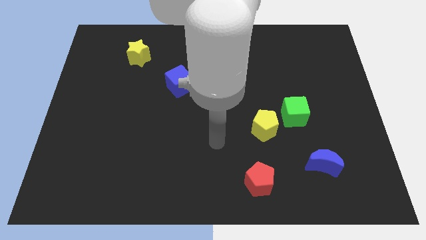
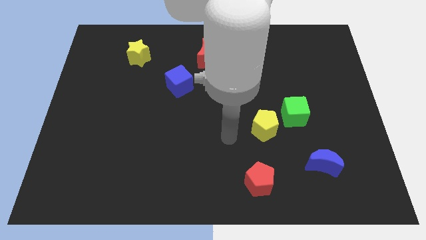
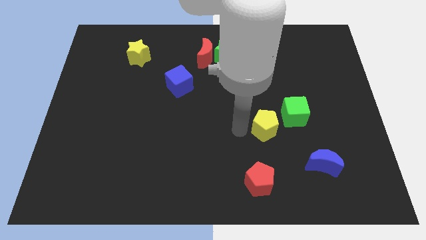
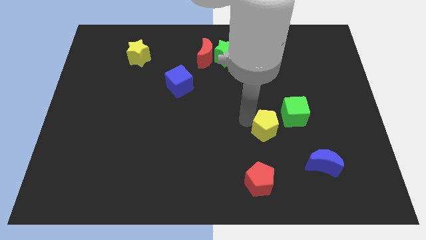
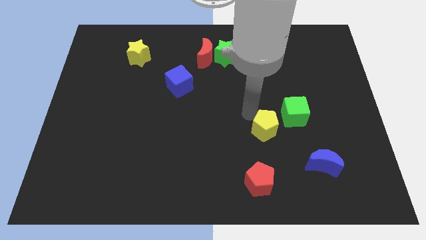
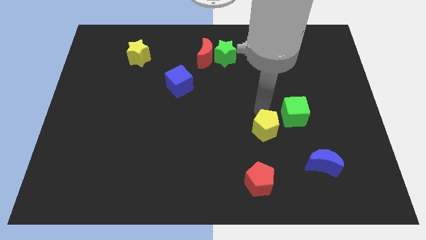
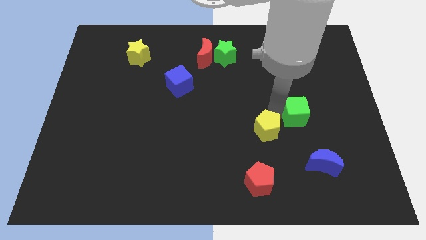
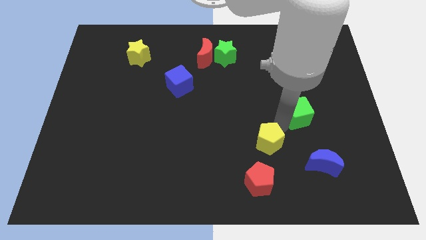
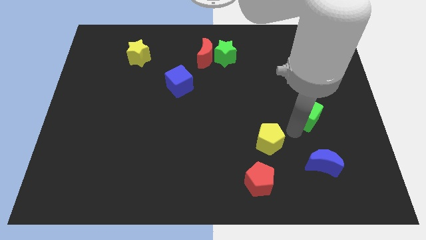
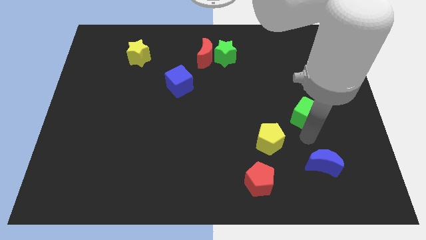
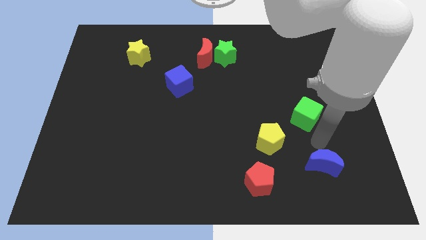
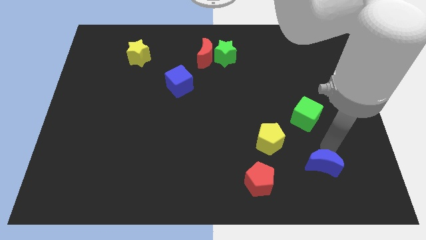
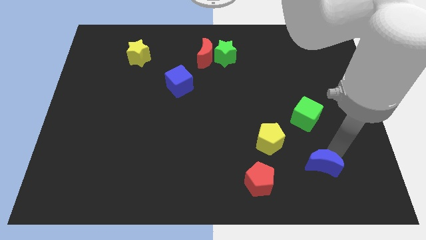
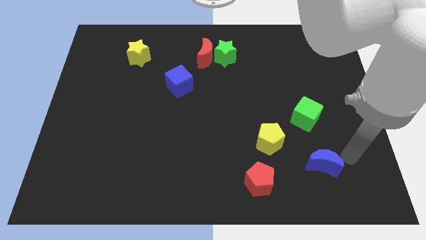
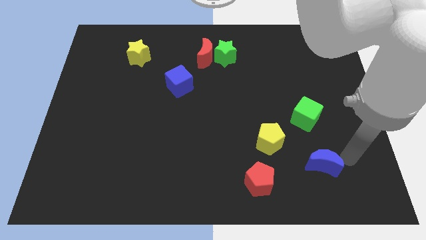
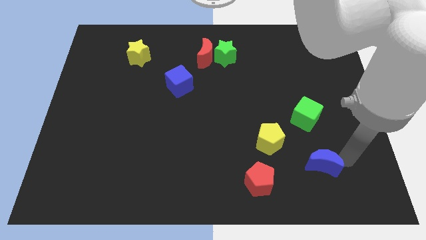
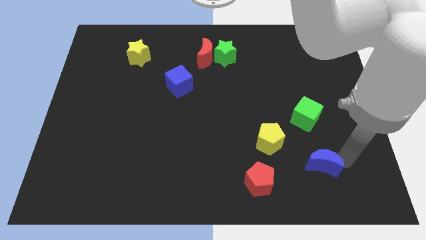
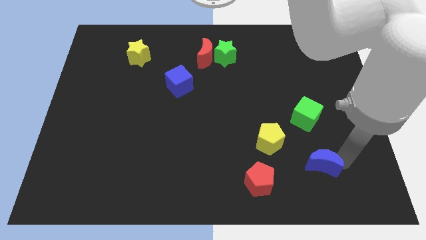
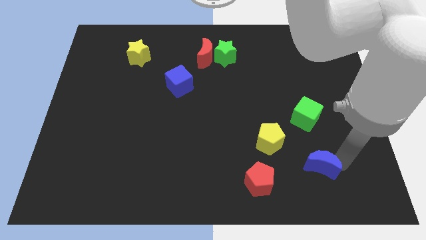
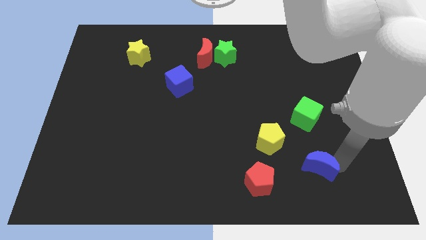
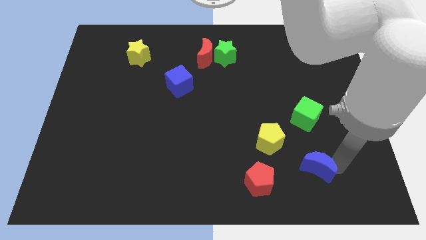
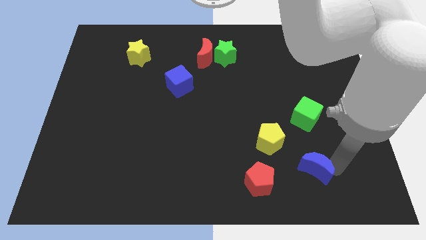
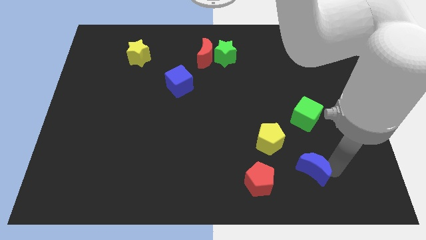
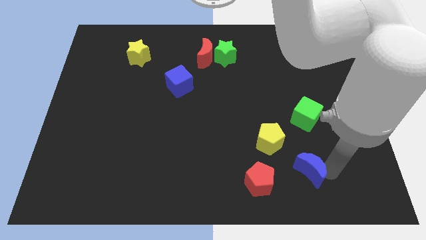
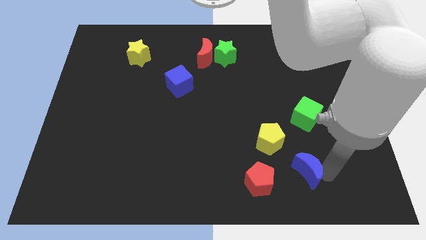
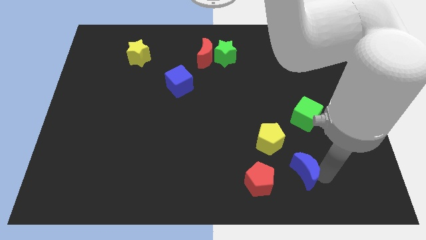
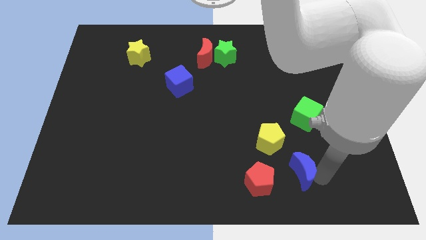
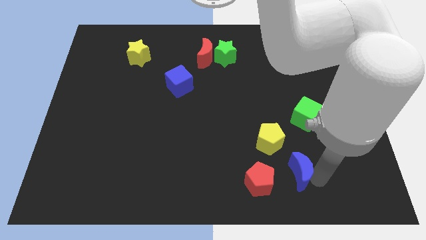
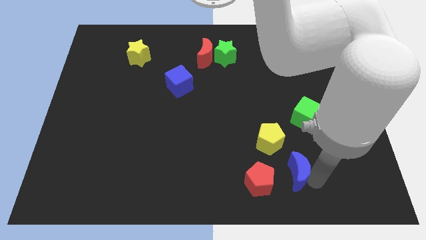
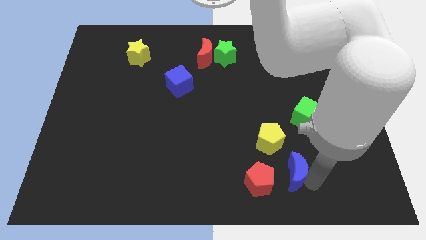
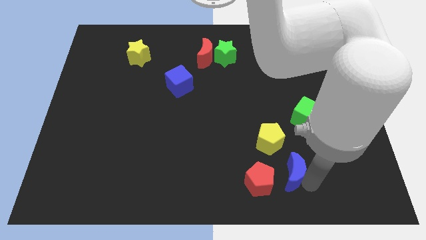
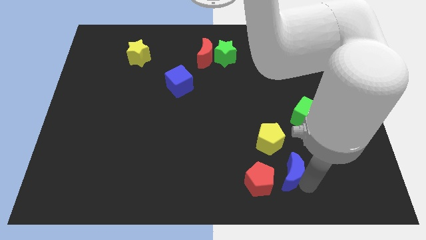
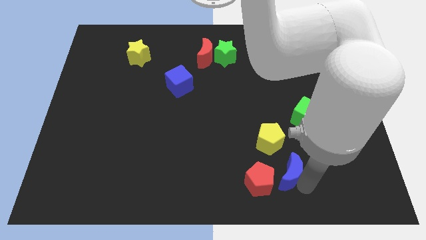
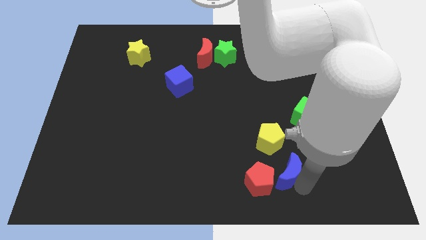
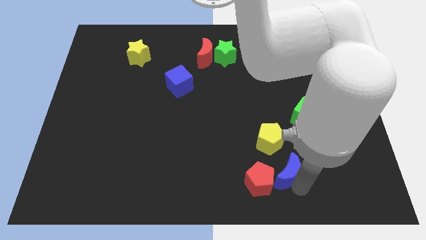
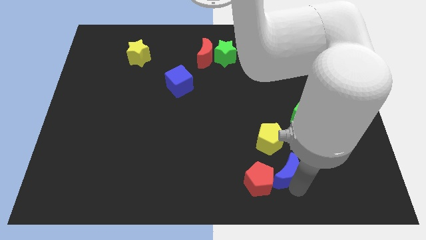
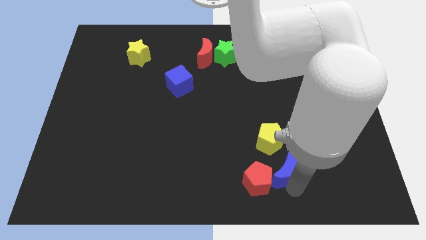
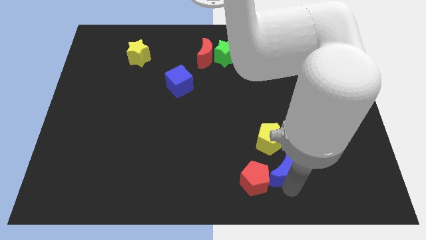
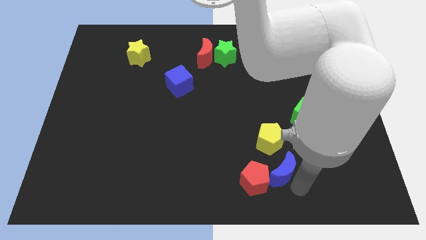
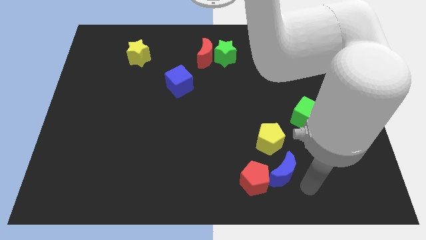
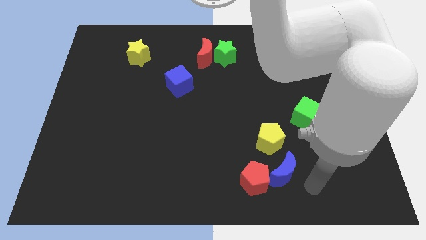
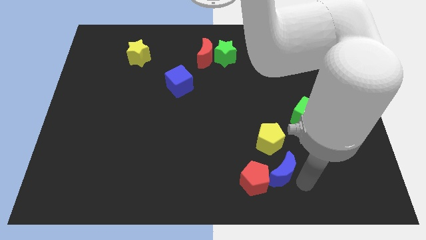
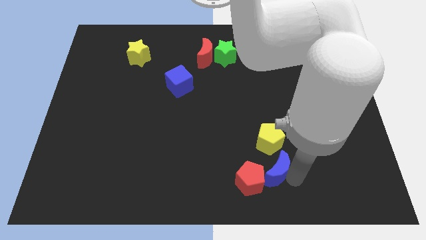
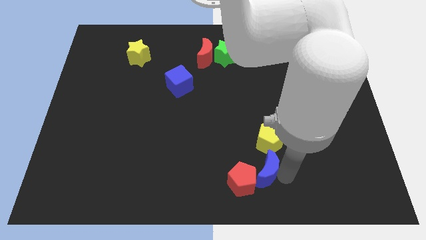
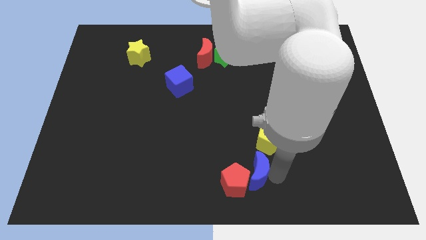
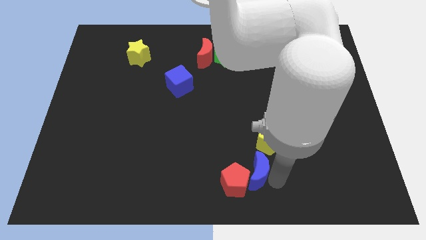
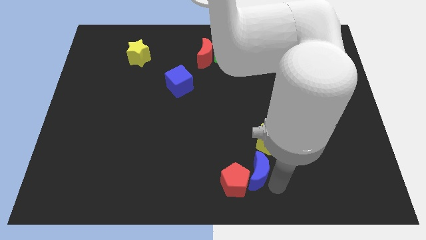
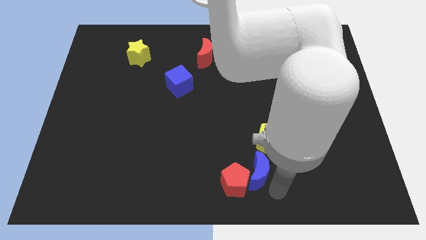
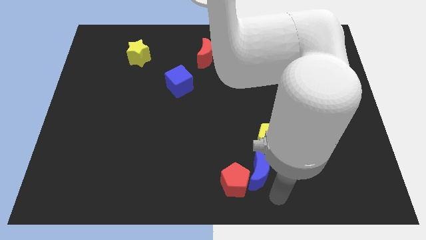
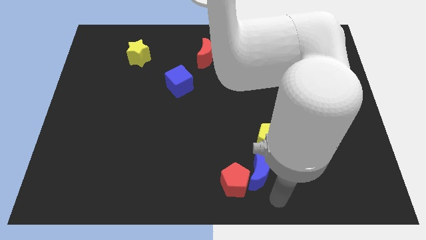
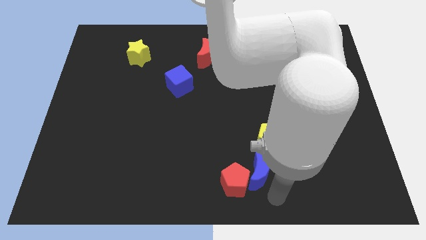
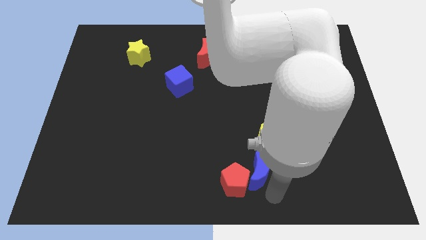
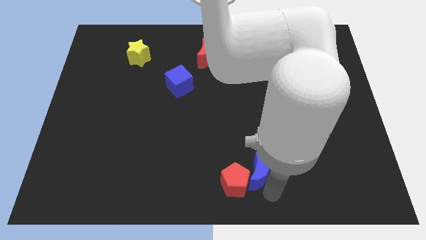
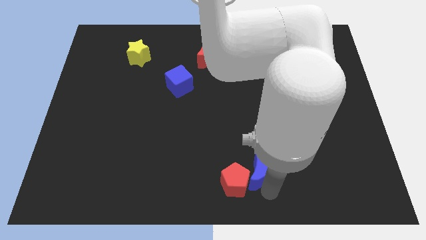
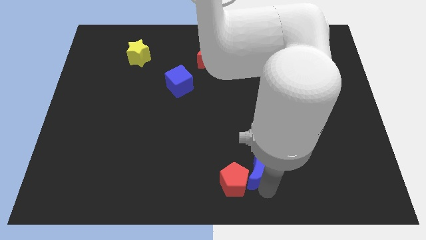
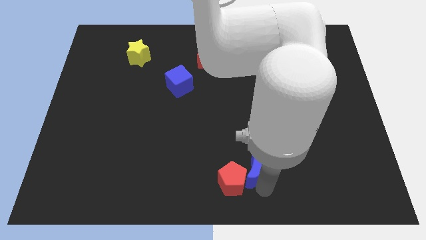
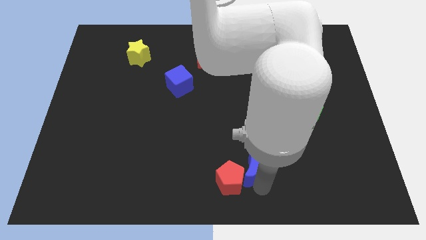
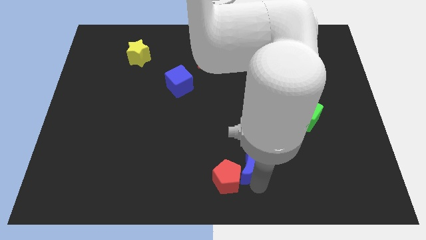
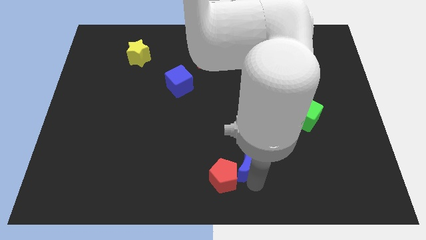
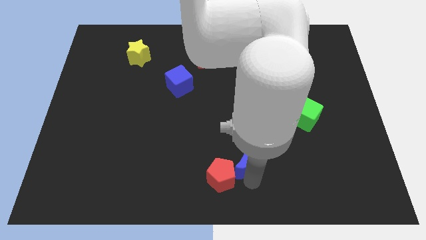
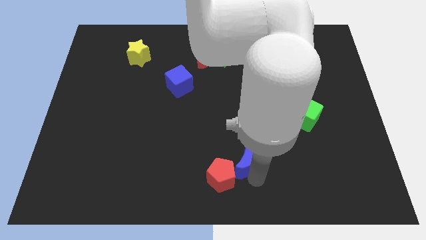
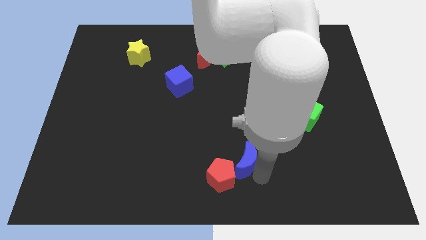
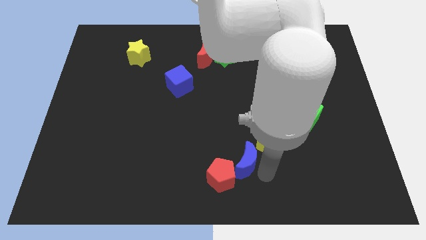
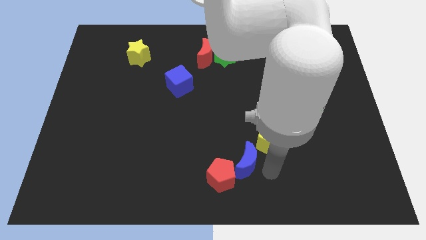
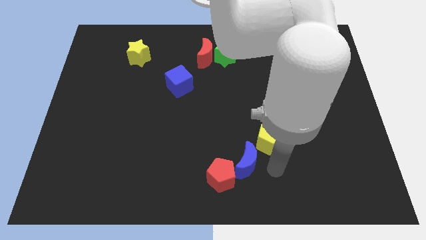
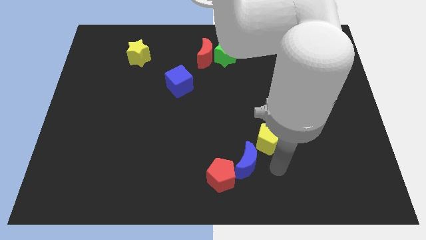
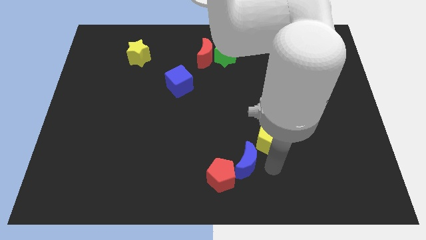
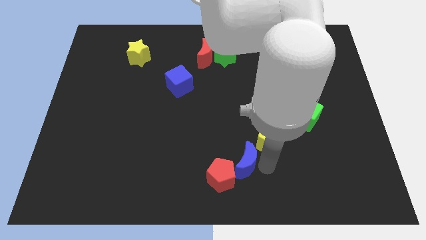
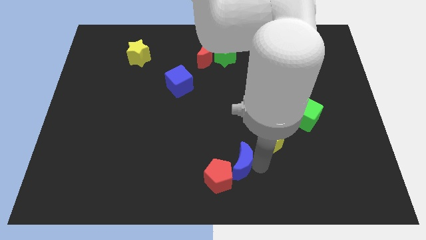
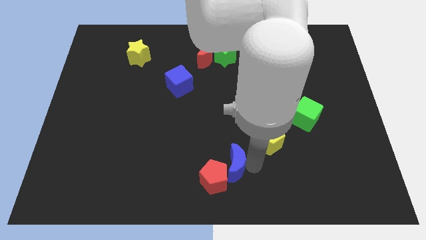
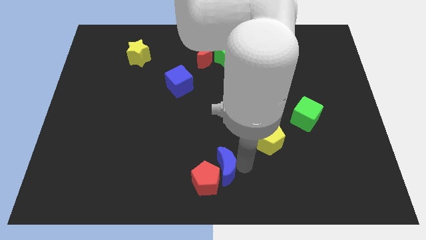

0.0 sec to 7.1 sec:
push the blue moon to the left

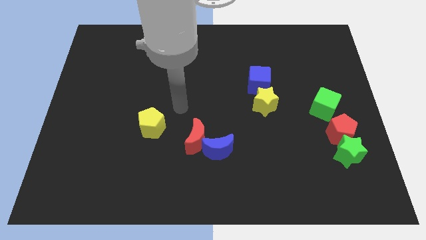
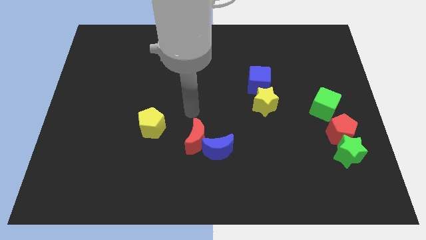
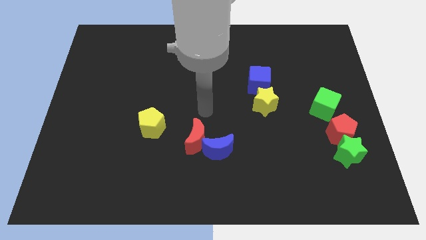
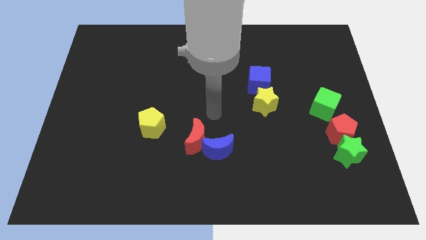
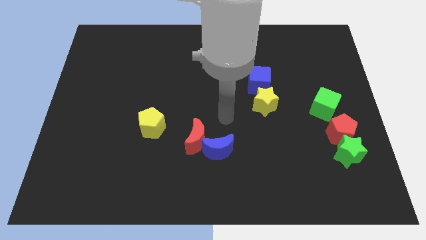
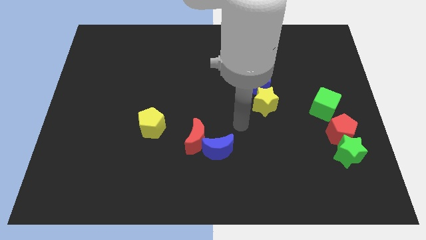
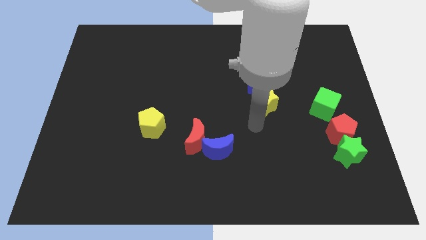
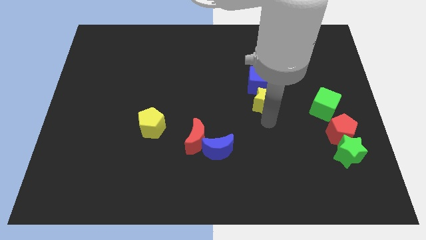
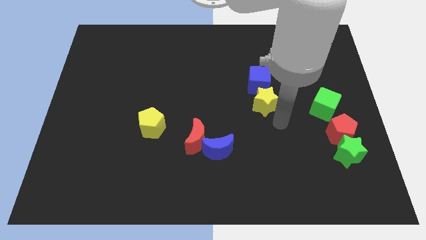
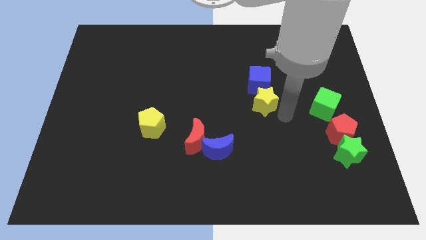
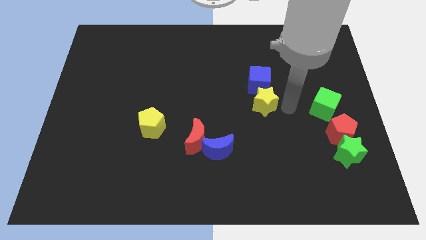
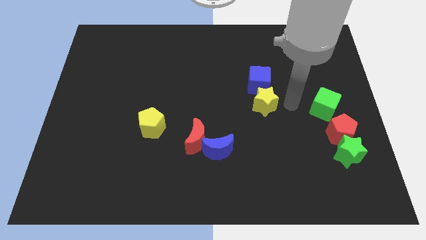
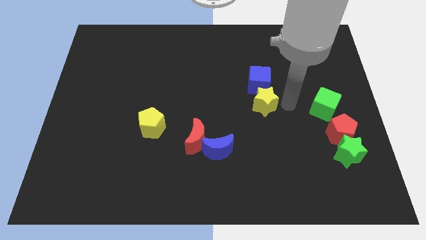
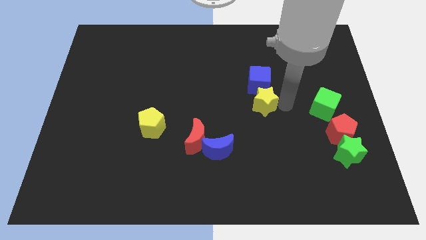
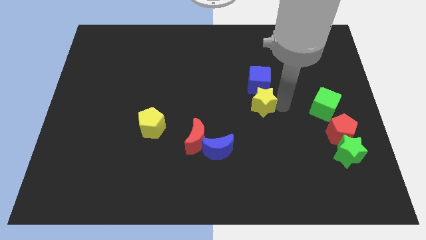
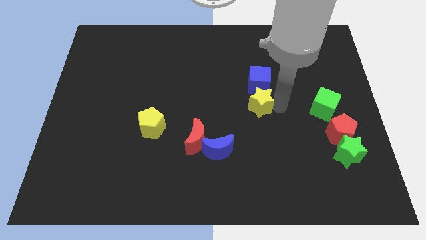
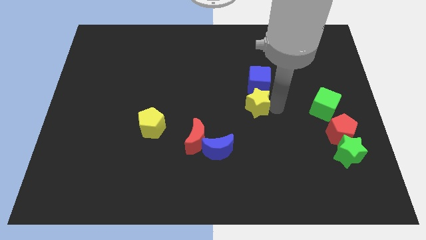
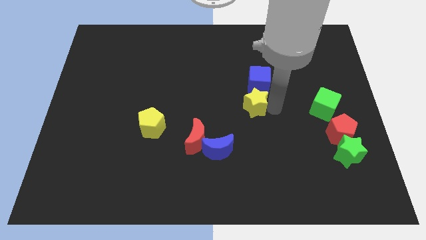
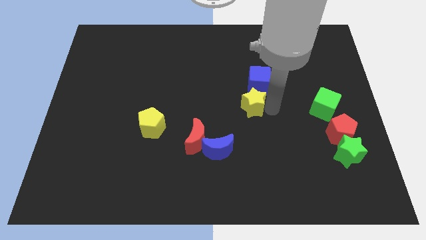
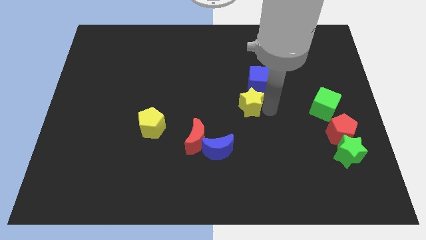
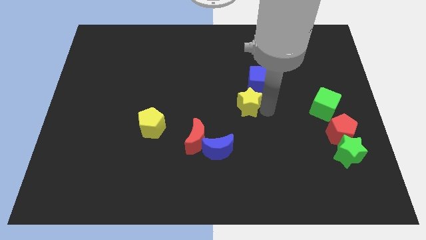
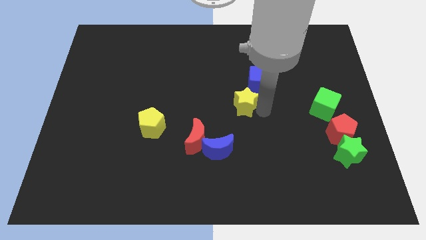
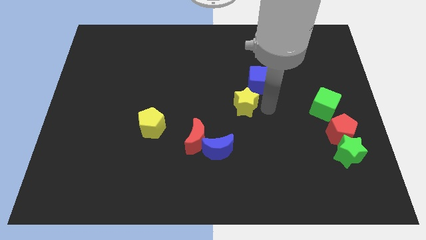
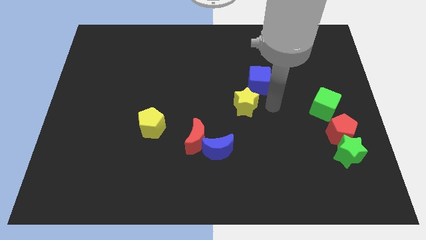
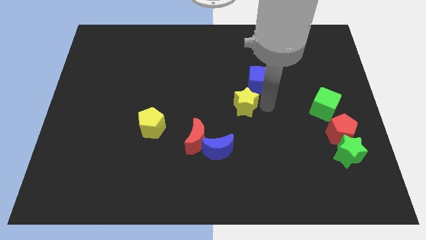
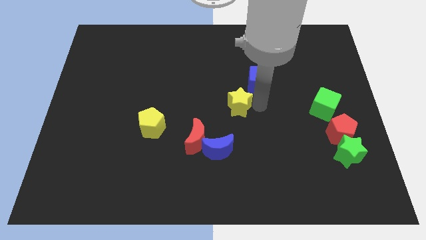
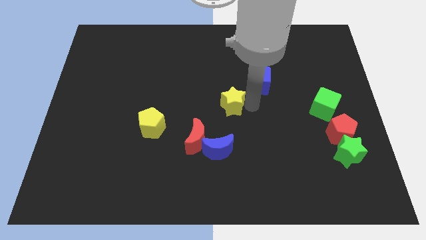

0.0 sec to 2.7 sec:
move the yellow star a little left
